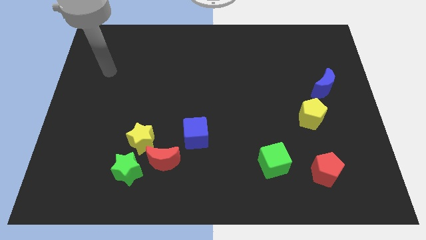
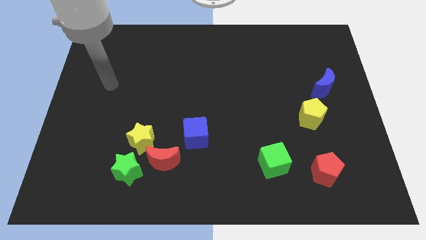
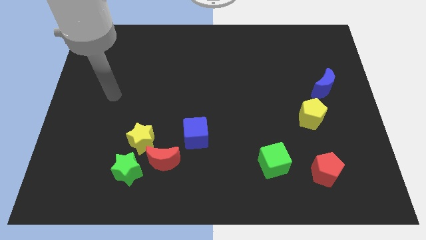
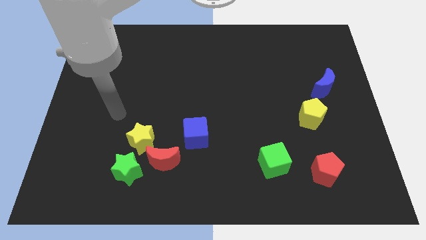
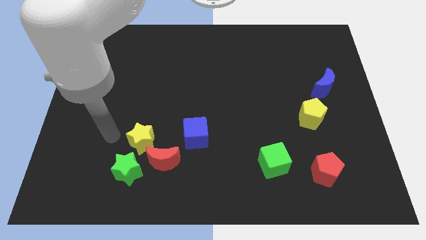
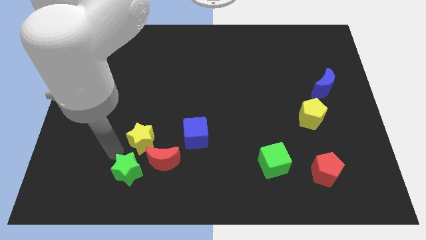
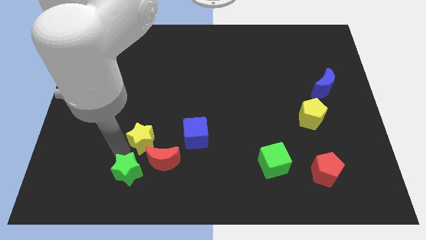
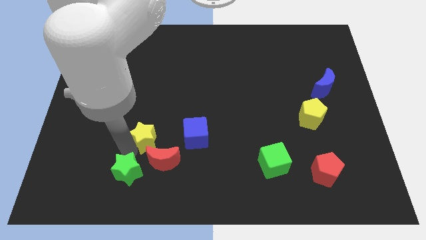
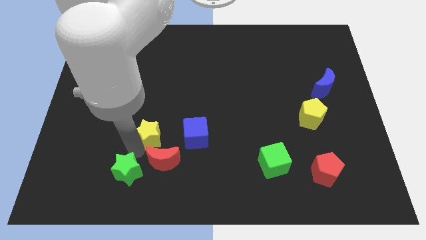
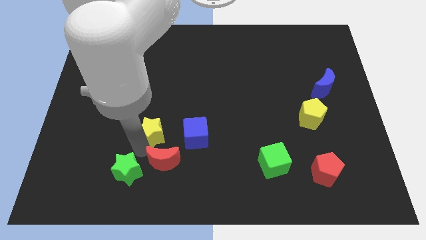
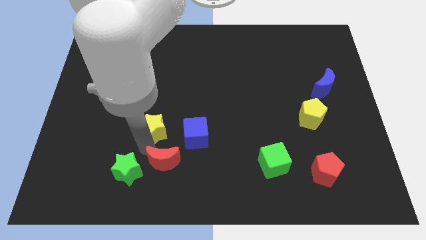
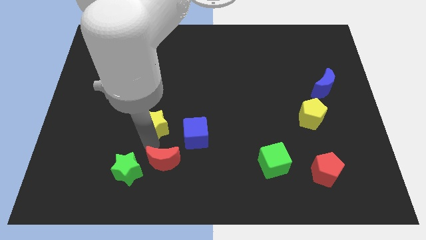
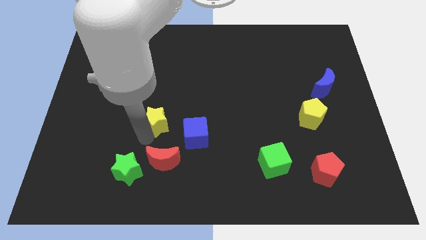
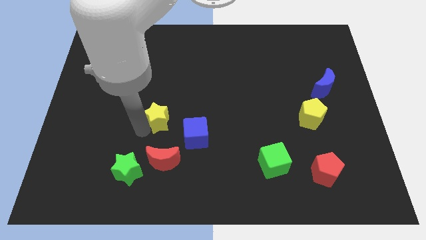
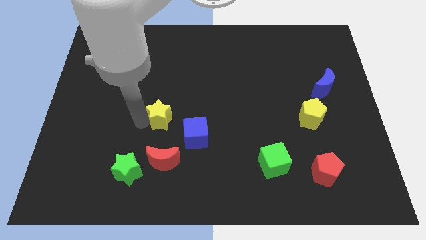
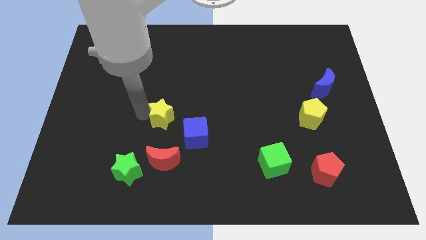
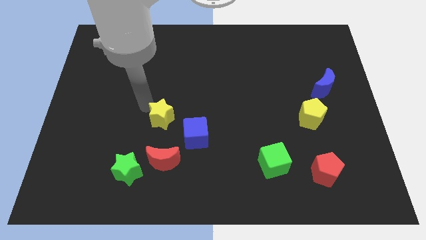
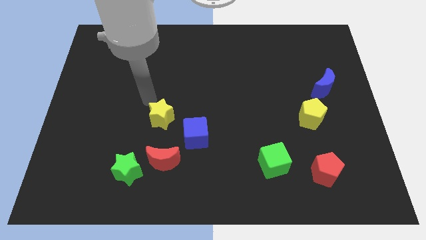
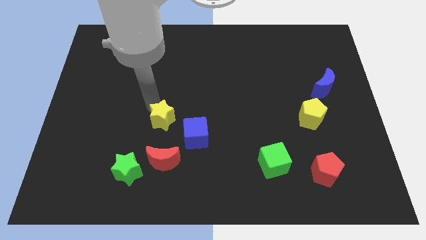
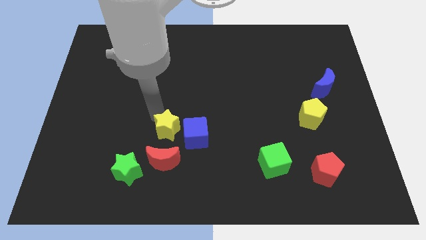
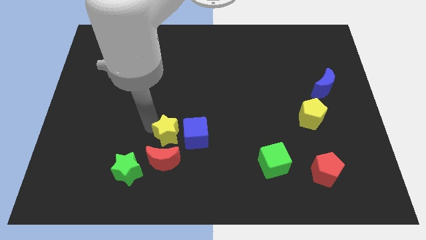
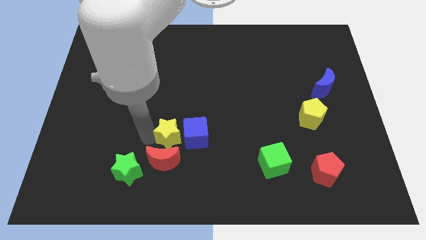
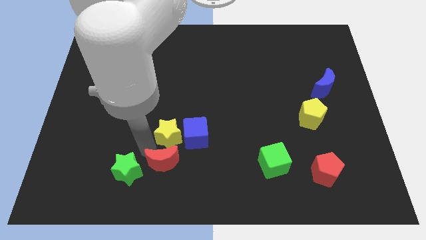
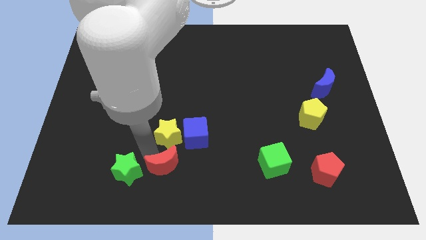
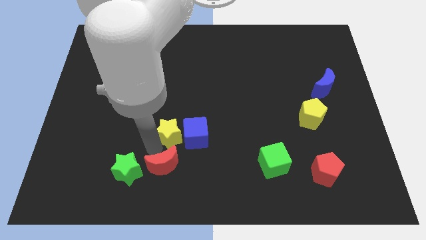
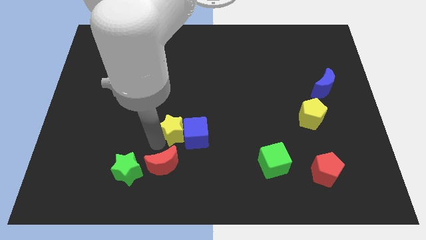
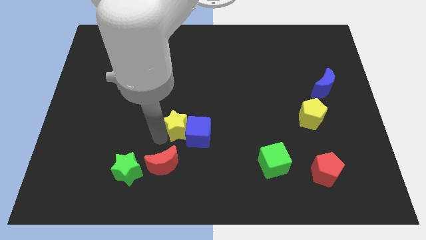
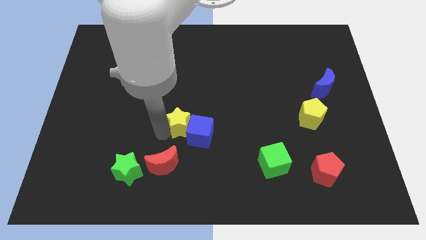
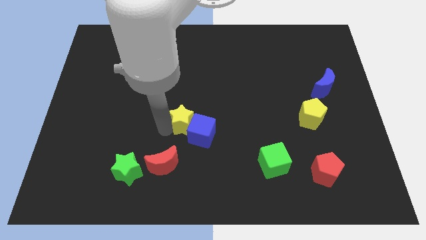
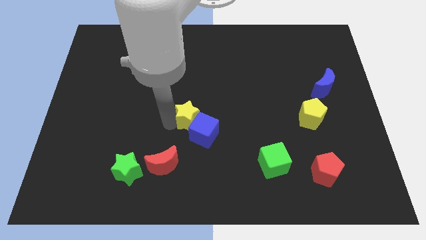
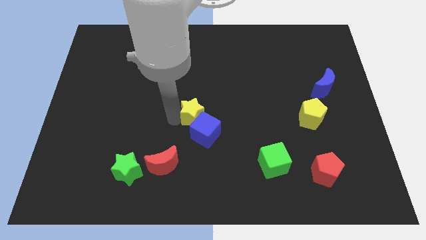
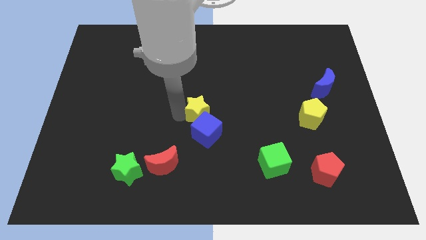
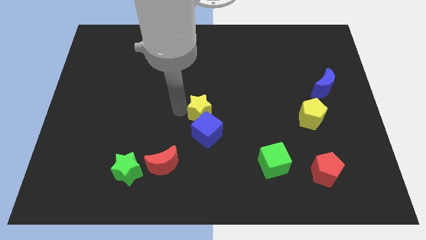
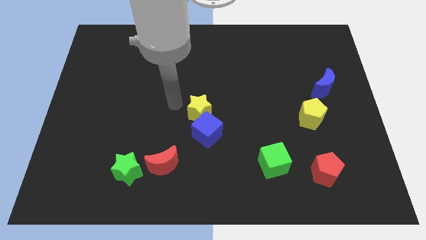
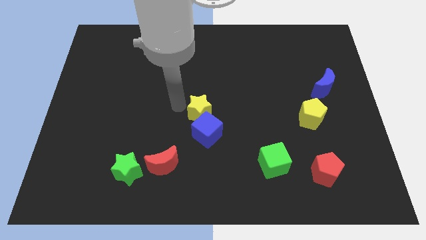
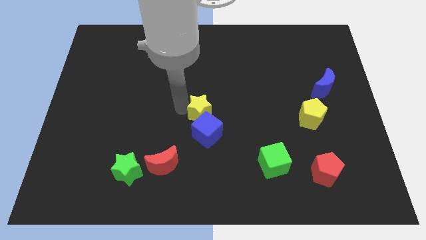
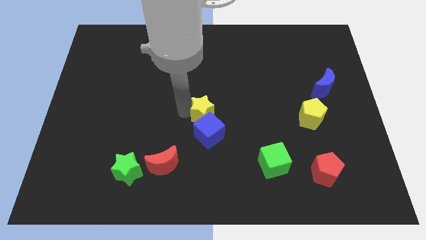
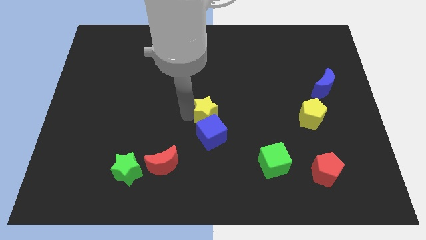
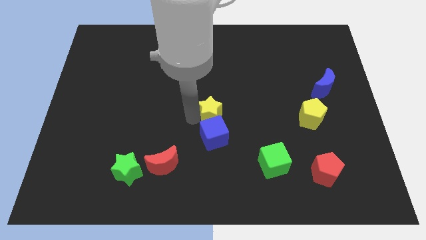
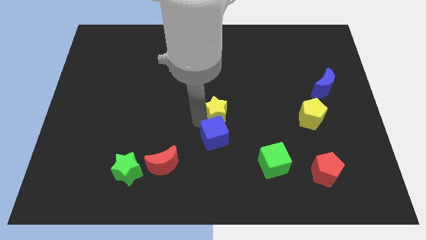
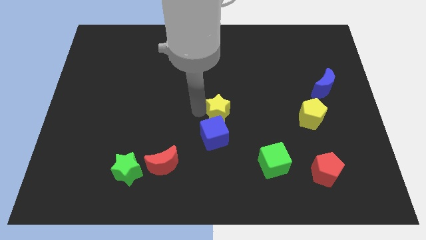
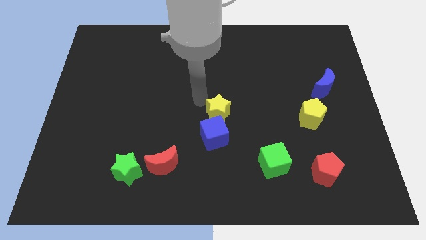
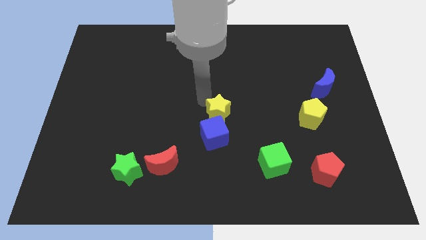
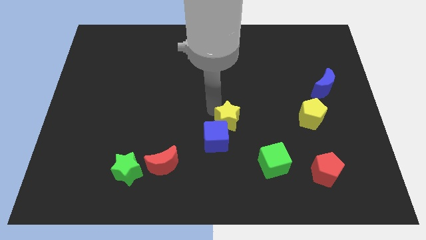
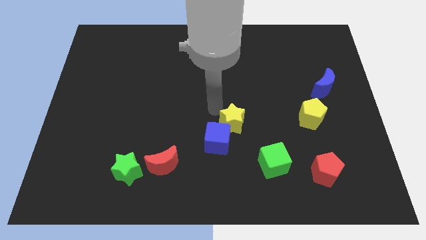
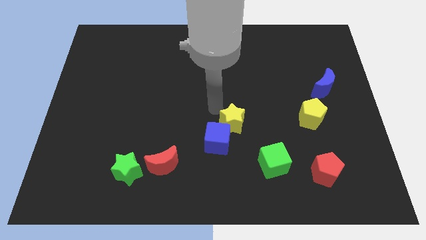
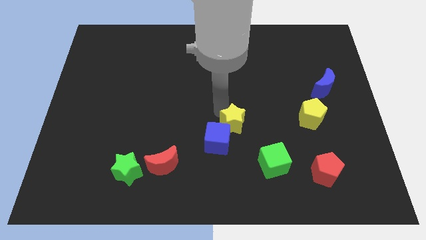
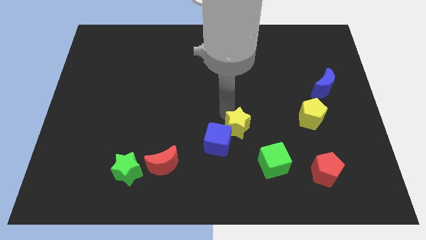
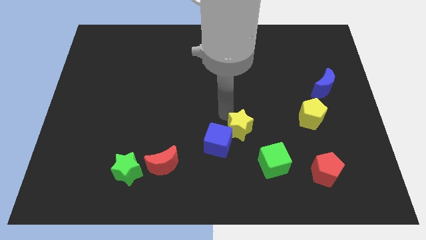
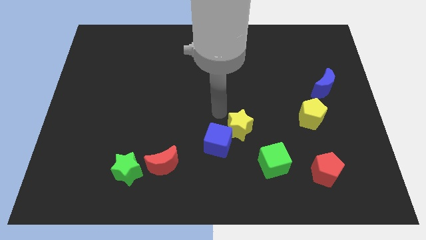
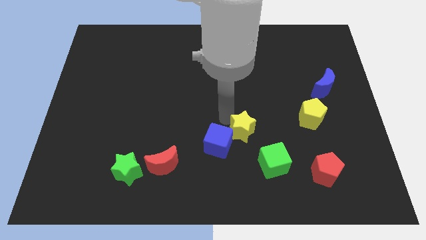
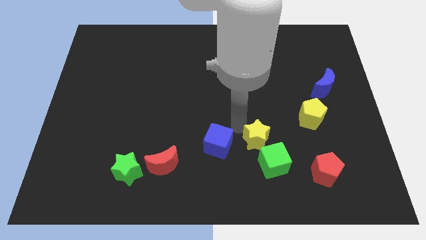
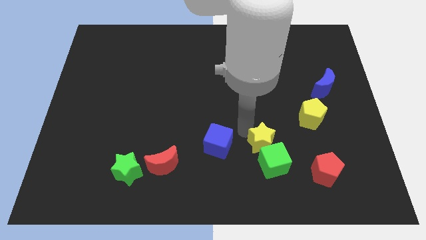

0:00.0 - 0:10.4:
move the yellow star next to the green cube

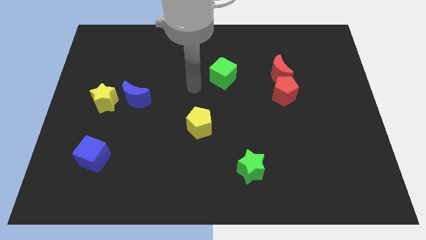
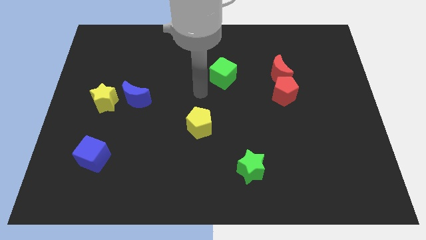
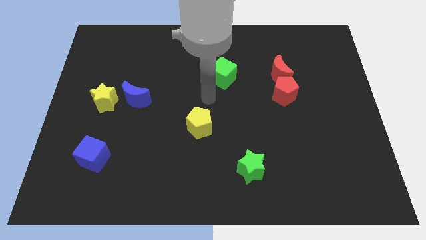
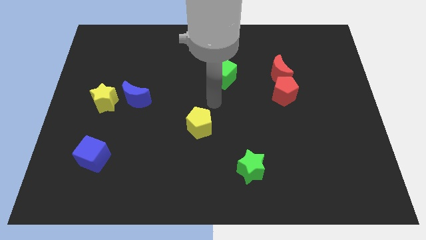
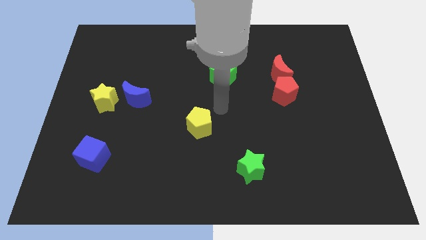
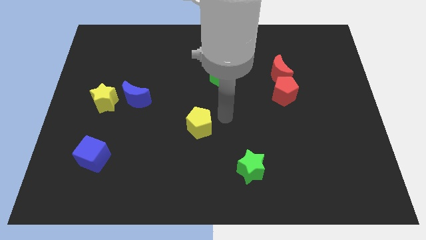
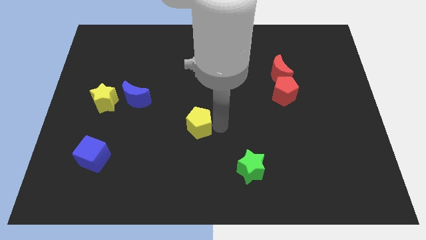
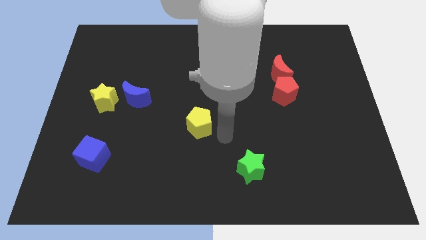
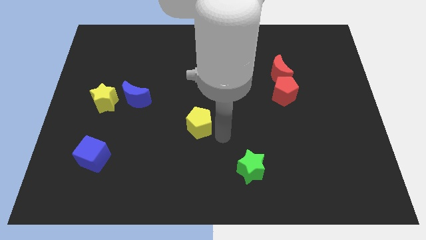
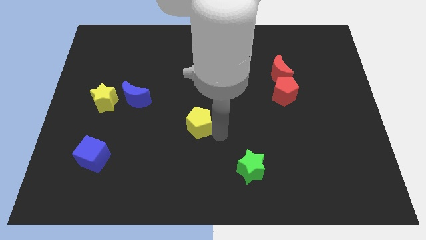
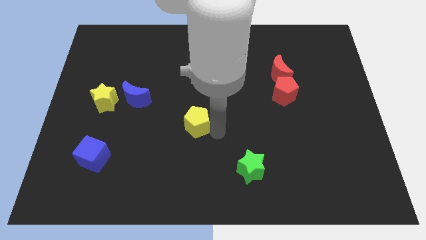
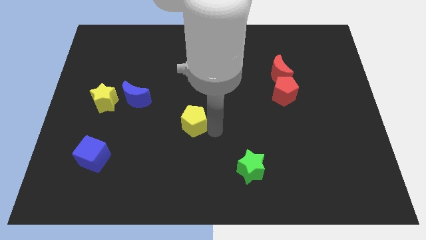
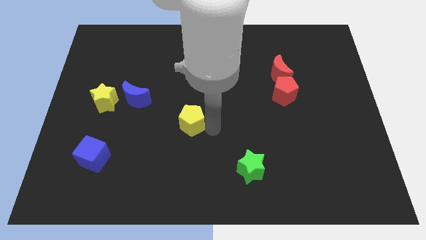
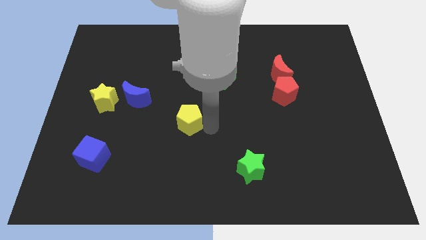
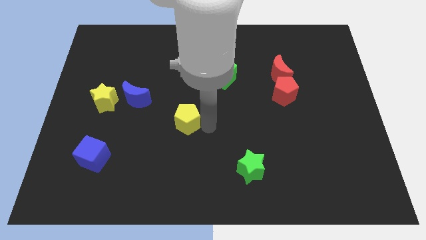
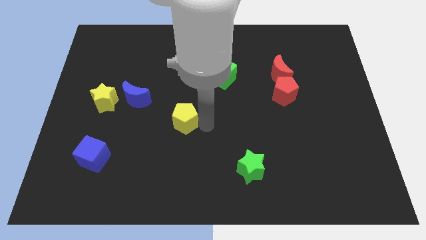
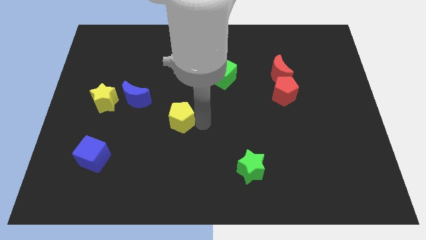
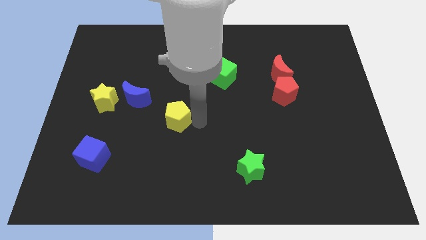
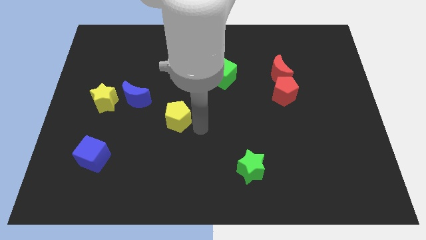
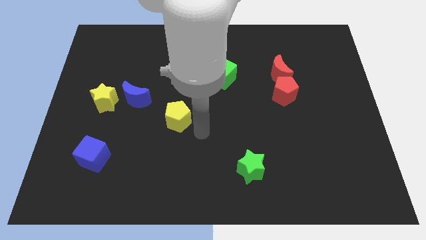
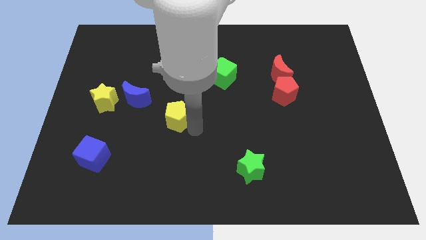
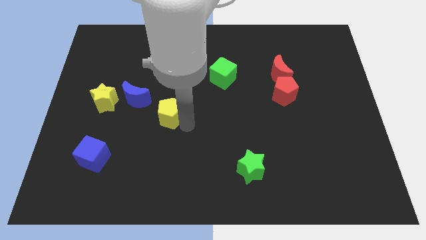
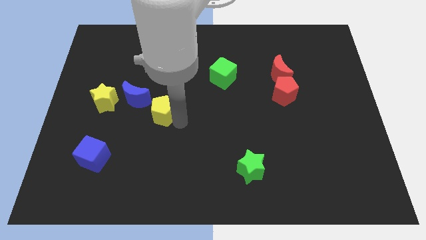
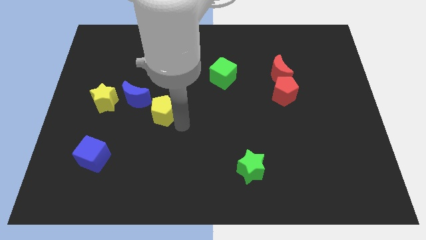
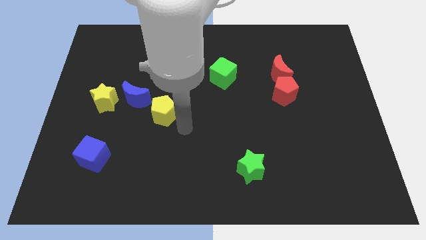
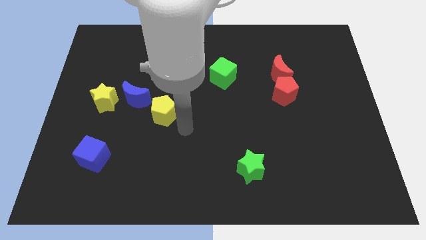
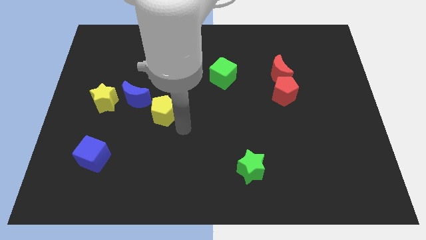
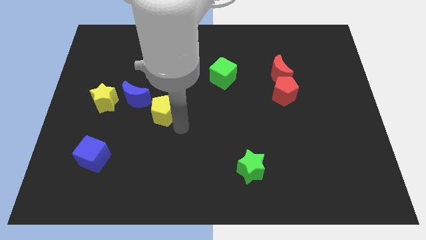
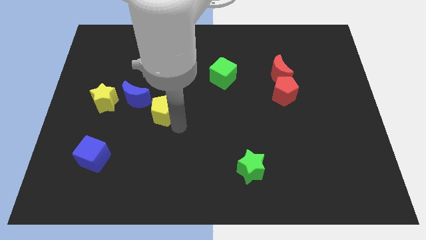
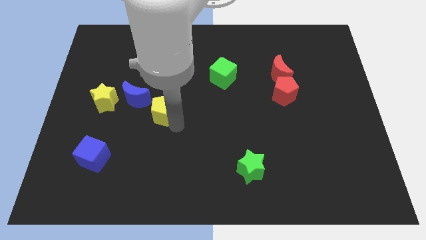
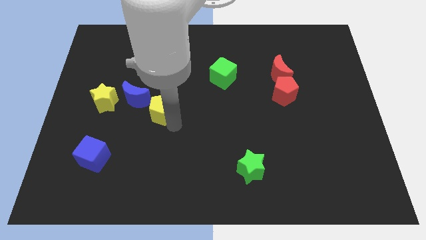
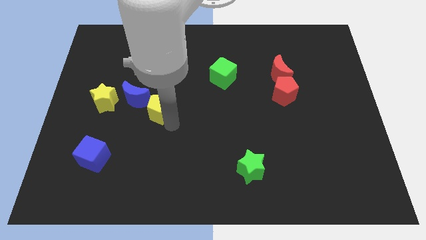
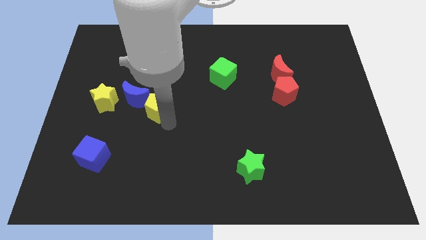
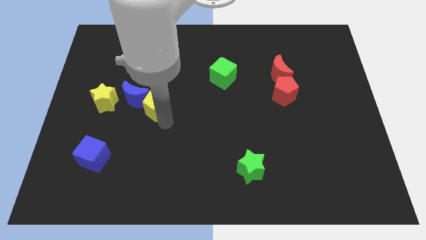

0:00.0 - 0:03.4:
slide the yellow pentagon close to the blue moon
